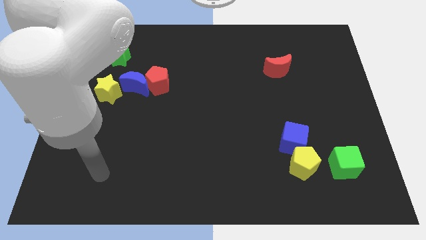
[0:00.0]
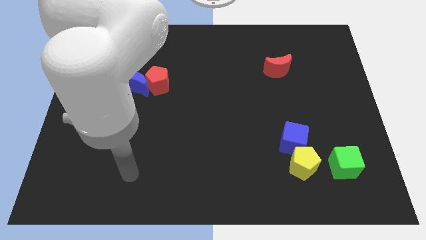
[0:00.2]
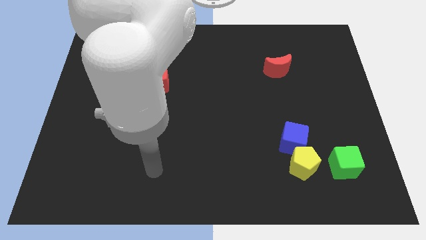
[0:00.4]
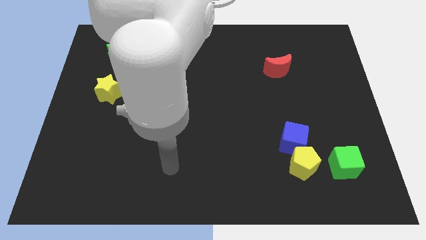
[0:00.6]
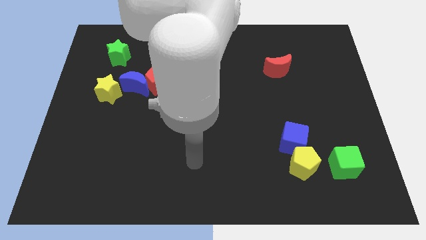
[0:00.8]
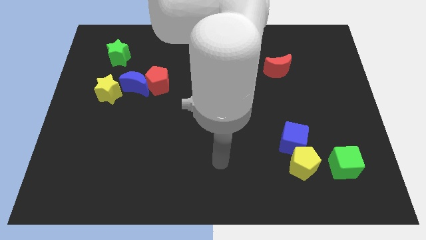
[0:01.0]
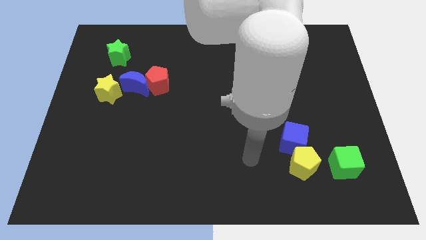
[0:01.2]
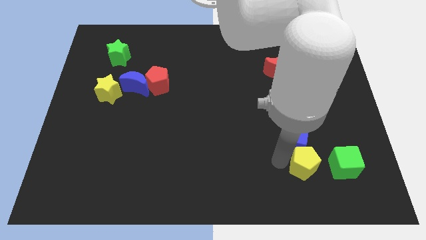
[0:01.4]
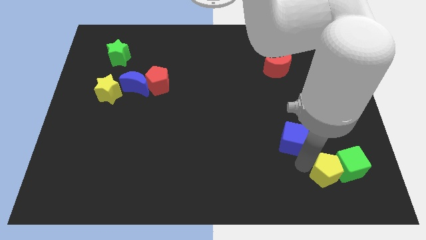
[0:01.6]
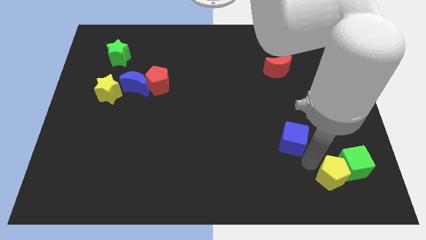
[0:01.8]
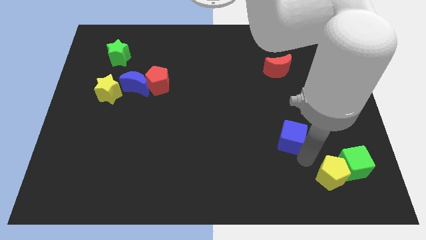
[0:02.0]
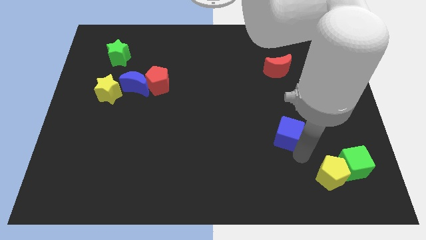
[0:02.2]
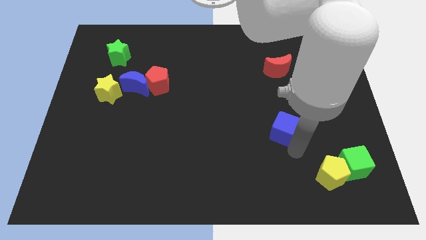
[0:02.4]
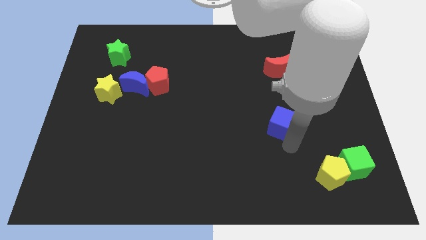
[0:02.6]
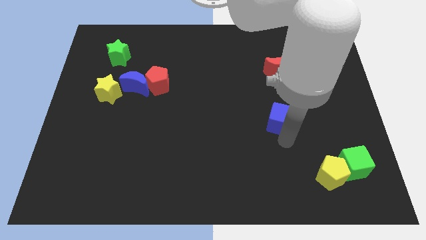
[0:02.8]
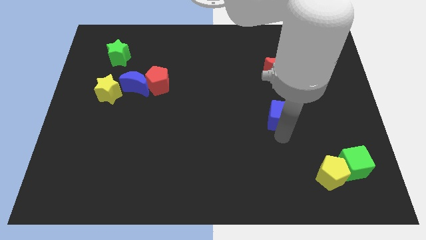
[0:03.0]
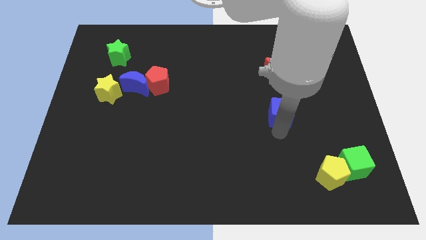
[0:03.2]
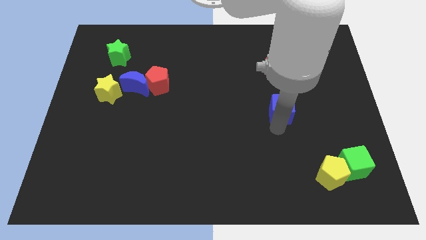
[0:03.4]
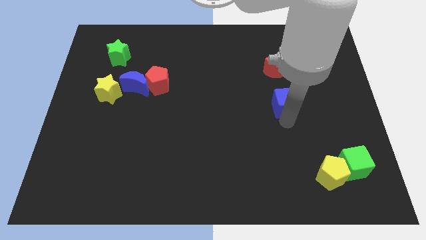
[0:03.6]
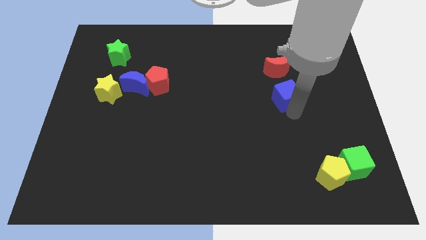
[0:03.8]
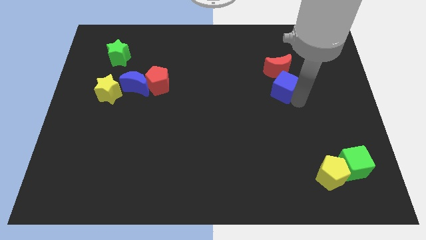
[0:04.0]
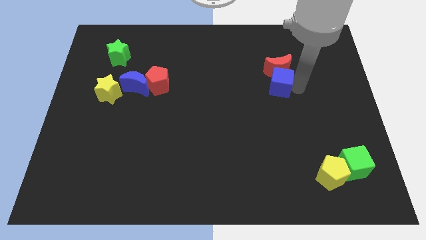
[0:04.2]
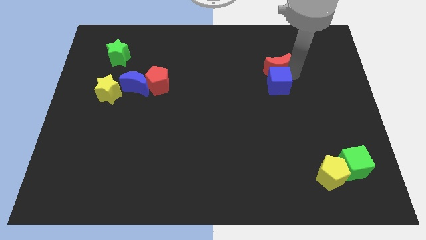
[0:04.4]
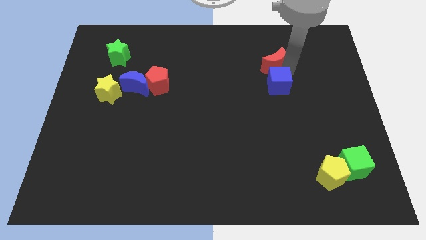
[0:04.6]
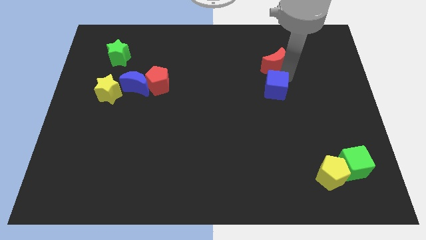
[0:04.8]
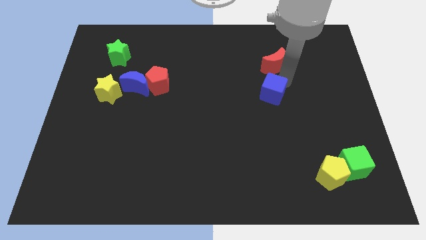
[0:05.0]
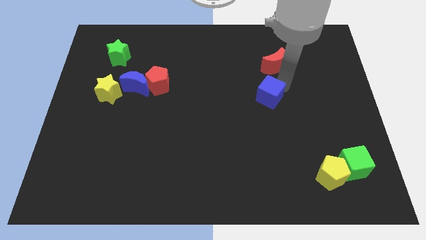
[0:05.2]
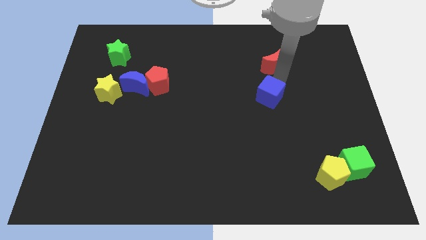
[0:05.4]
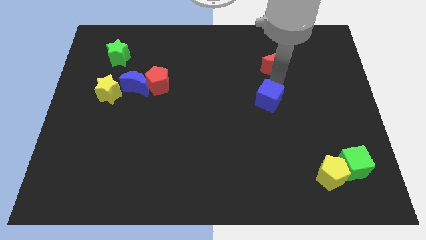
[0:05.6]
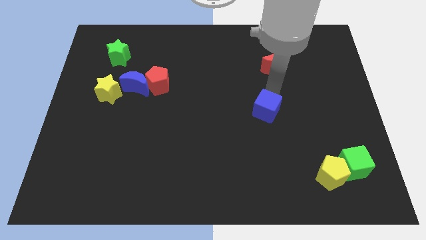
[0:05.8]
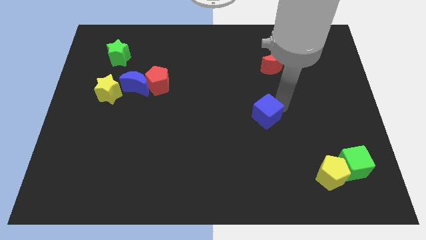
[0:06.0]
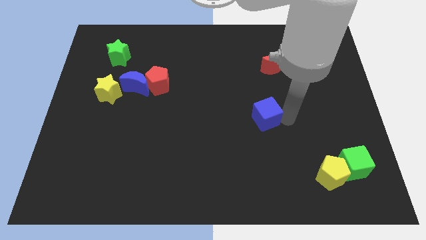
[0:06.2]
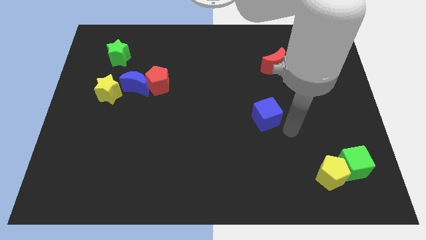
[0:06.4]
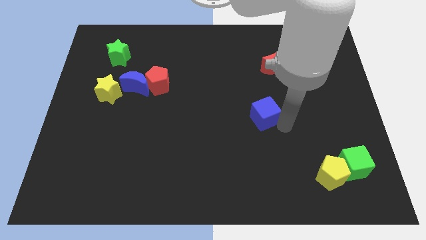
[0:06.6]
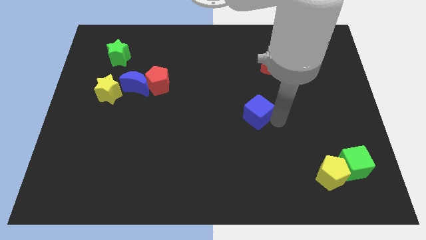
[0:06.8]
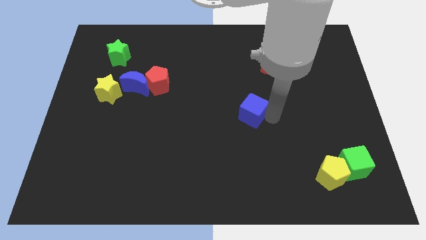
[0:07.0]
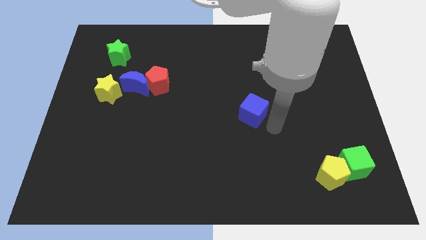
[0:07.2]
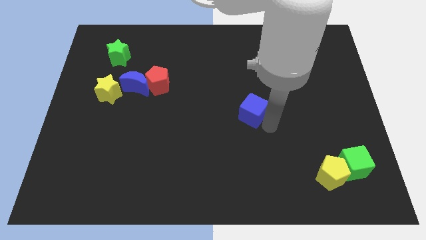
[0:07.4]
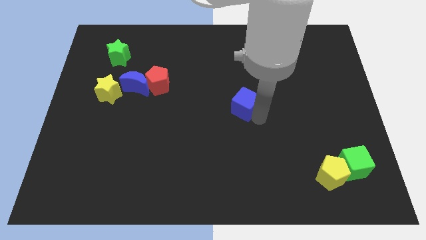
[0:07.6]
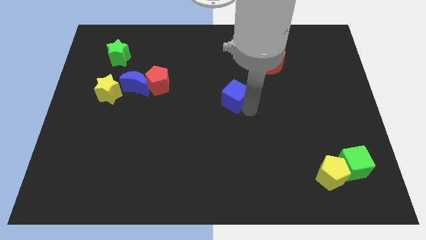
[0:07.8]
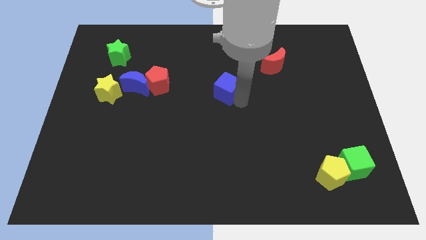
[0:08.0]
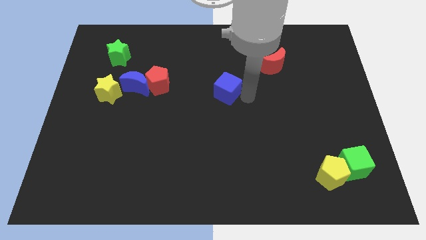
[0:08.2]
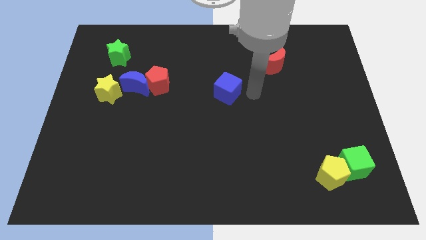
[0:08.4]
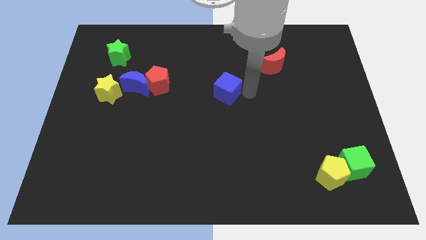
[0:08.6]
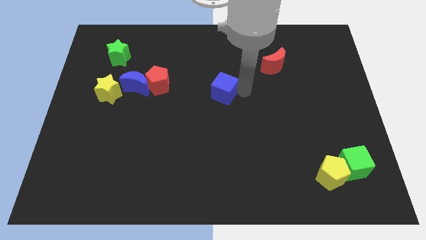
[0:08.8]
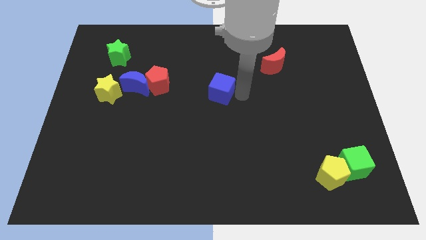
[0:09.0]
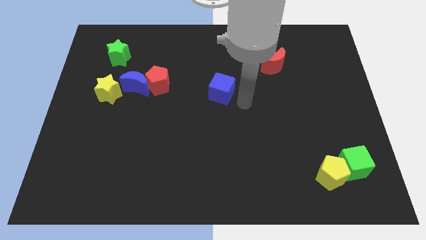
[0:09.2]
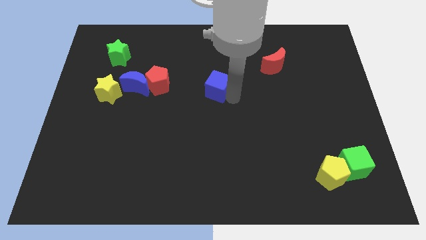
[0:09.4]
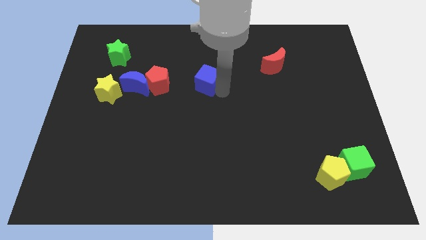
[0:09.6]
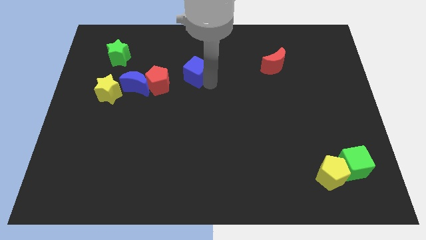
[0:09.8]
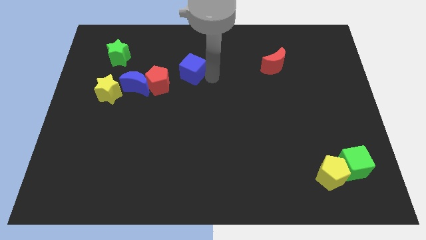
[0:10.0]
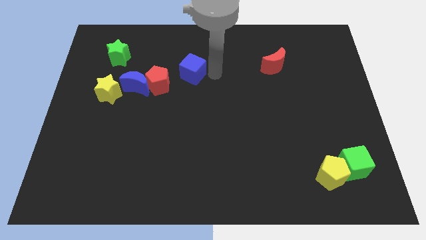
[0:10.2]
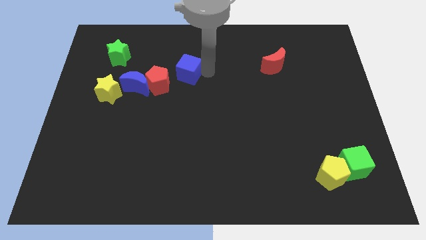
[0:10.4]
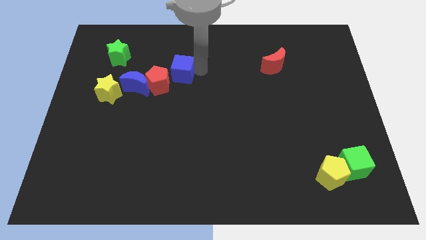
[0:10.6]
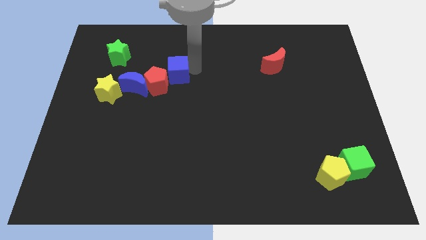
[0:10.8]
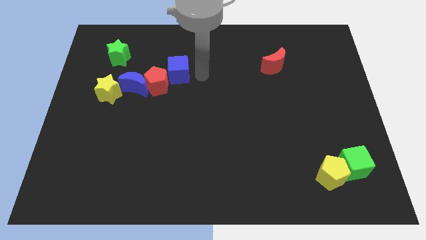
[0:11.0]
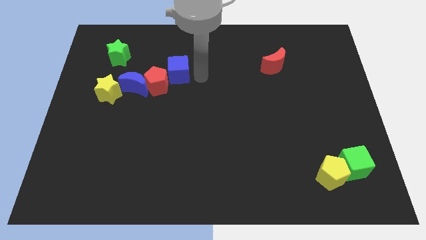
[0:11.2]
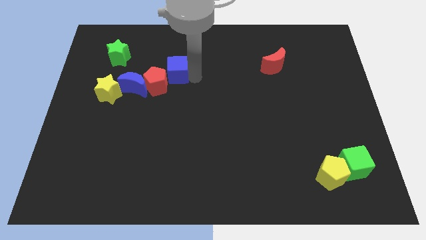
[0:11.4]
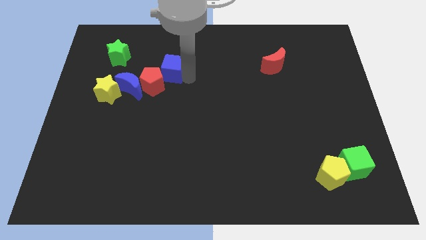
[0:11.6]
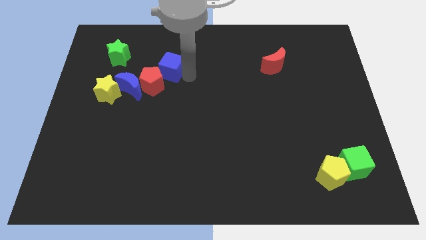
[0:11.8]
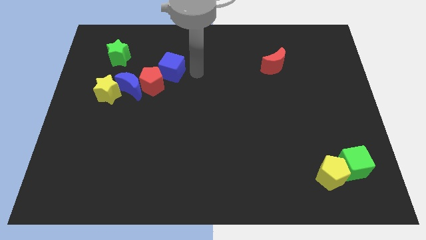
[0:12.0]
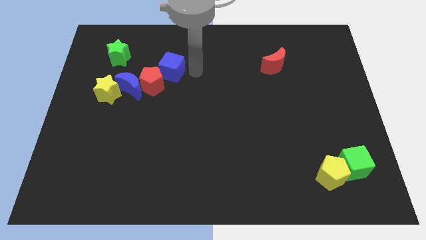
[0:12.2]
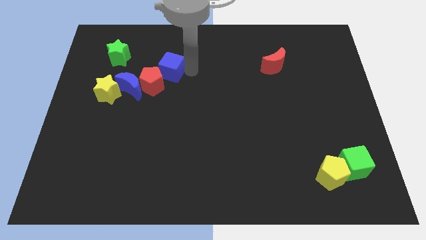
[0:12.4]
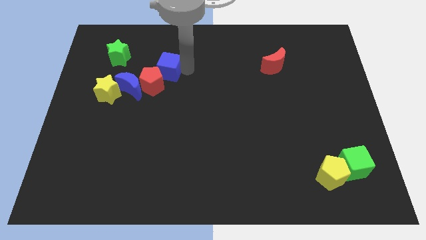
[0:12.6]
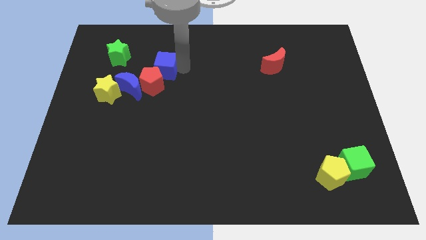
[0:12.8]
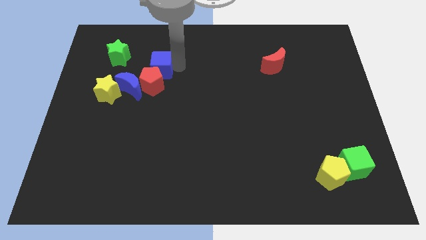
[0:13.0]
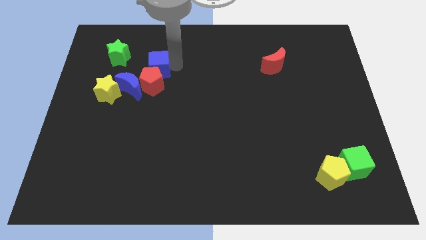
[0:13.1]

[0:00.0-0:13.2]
put the blue cube to the top left side of the red pentagon

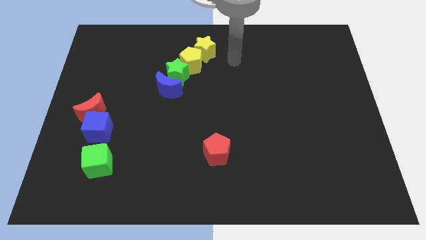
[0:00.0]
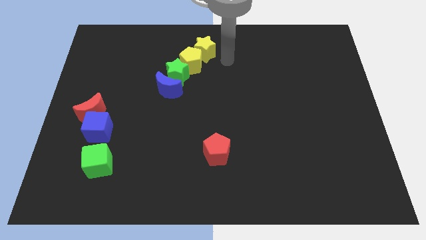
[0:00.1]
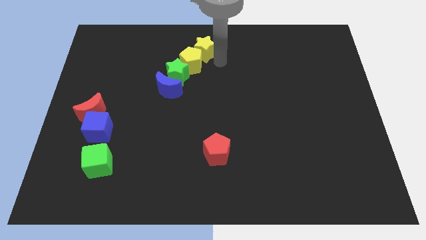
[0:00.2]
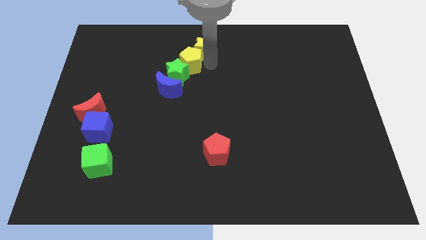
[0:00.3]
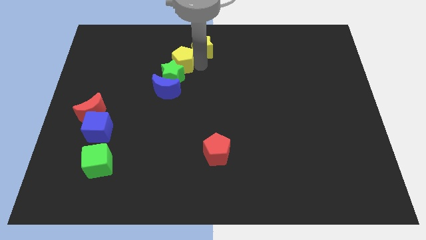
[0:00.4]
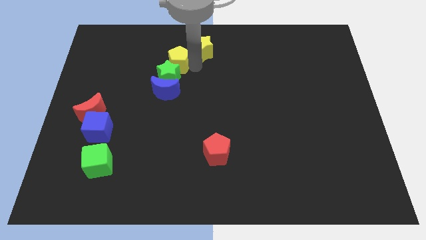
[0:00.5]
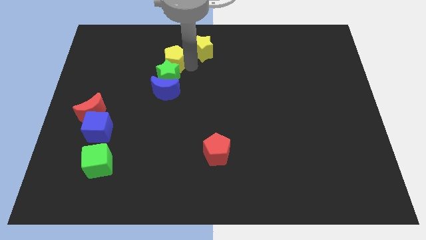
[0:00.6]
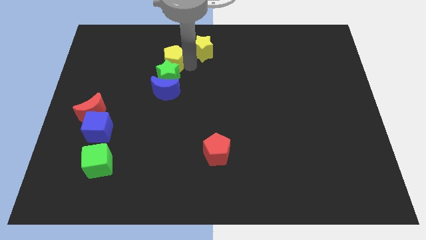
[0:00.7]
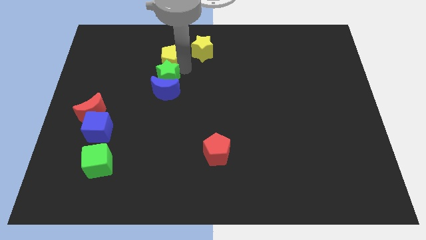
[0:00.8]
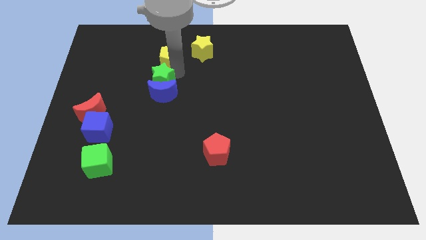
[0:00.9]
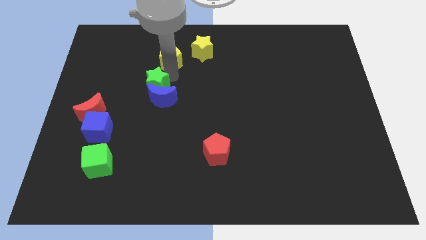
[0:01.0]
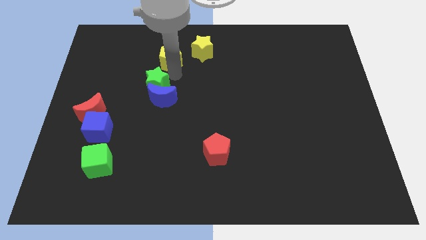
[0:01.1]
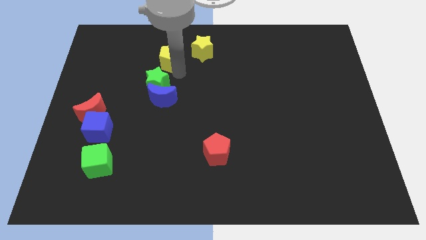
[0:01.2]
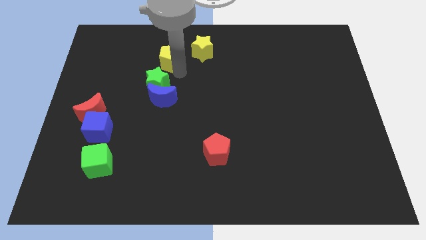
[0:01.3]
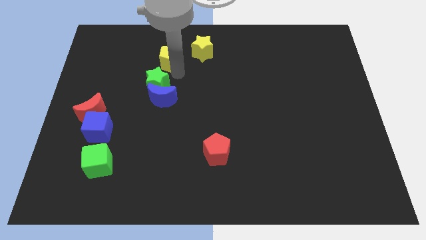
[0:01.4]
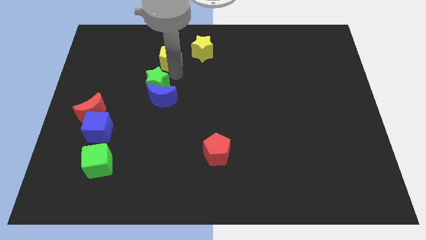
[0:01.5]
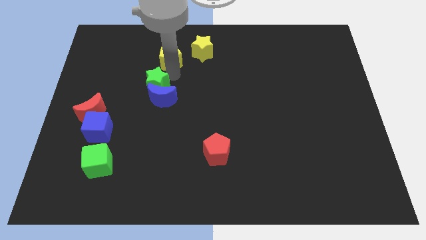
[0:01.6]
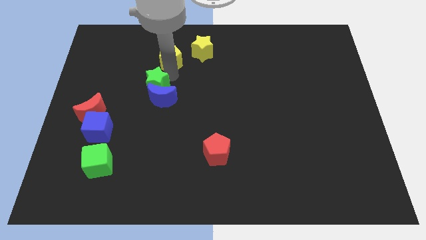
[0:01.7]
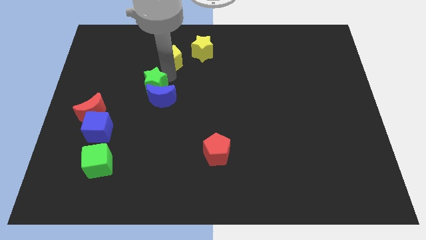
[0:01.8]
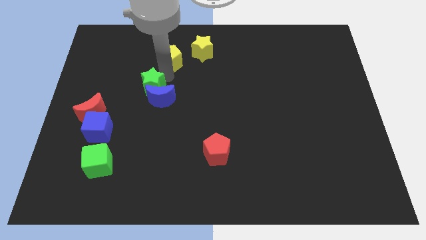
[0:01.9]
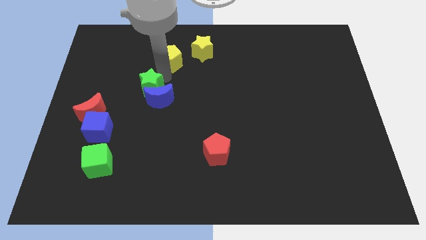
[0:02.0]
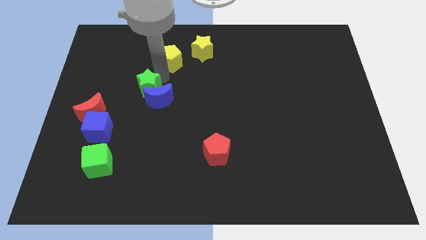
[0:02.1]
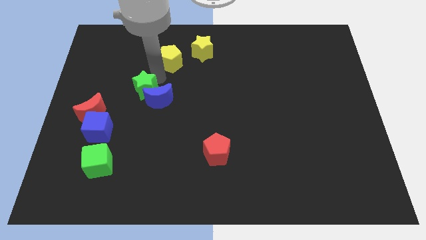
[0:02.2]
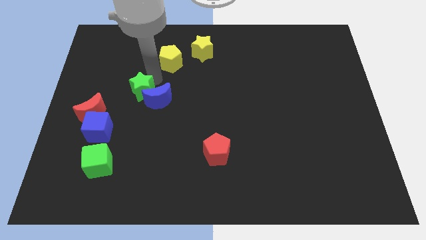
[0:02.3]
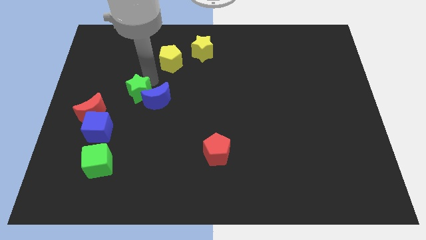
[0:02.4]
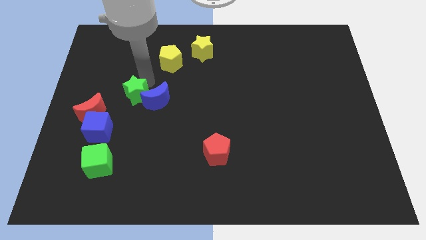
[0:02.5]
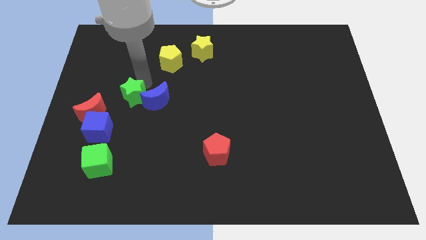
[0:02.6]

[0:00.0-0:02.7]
put the green star diagonally down and to the left of the blue moon
